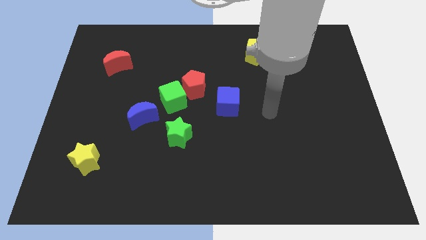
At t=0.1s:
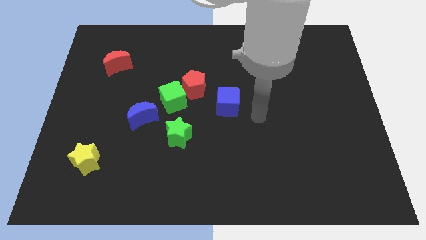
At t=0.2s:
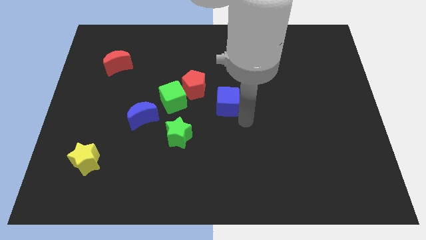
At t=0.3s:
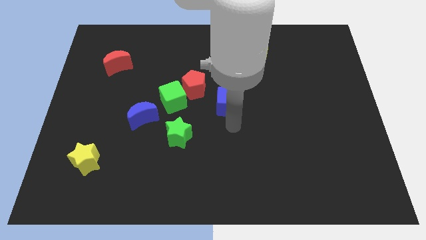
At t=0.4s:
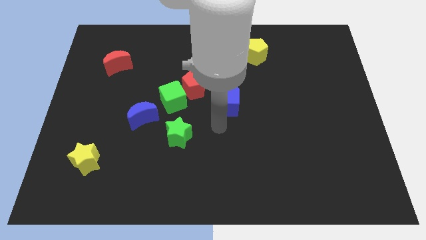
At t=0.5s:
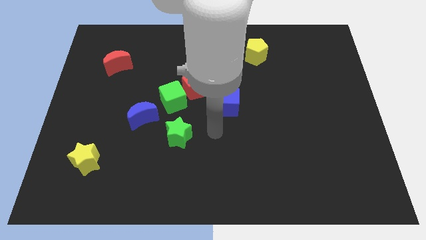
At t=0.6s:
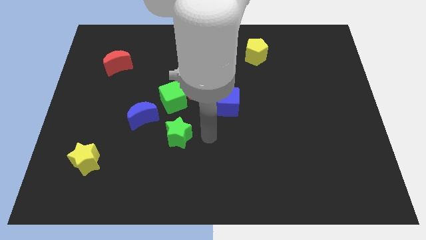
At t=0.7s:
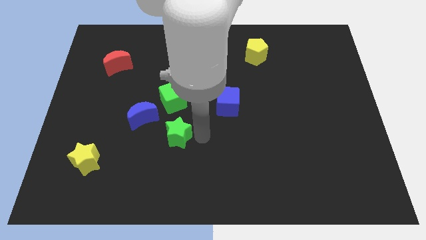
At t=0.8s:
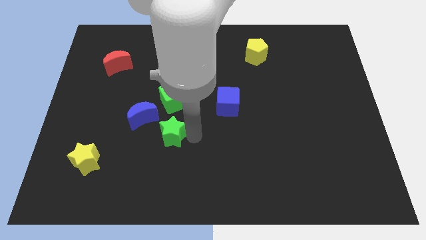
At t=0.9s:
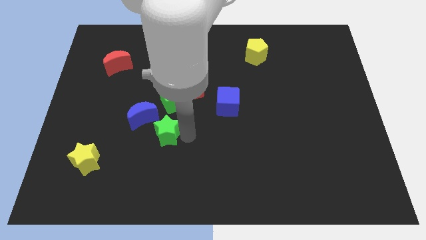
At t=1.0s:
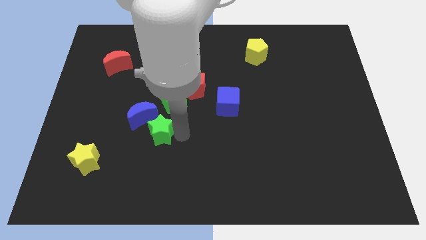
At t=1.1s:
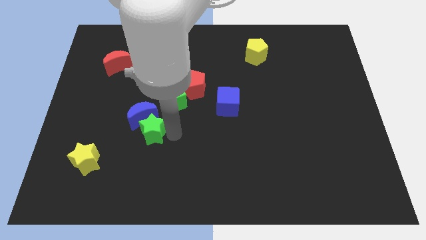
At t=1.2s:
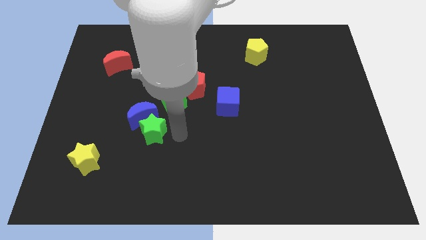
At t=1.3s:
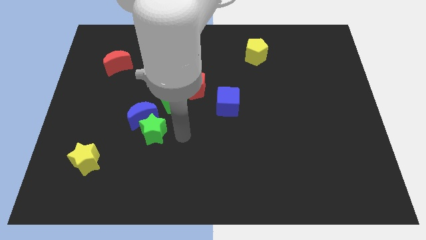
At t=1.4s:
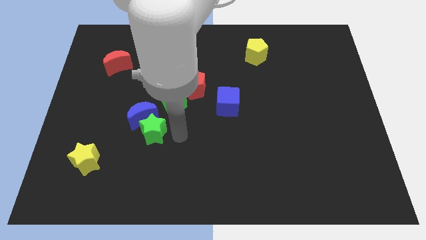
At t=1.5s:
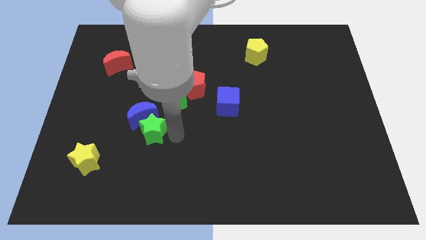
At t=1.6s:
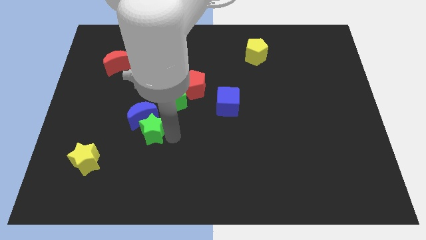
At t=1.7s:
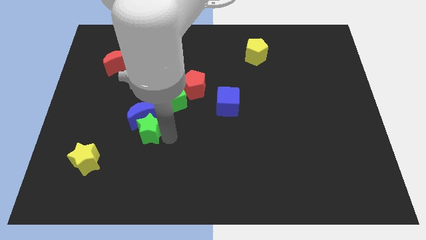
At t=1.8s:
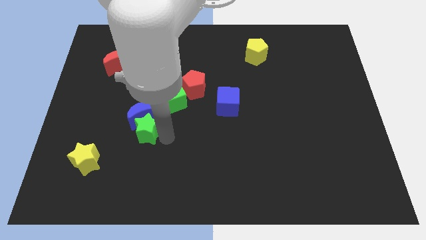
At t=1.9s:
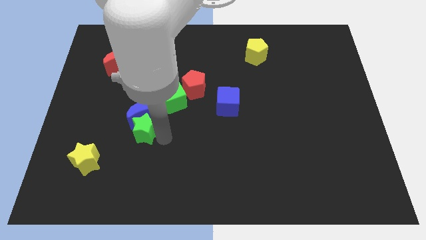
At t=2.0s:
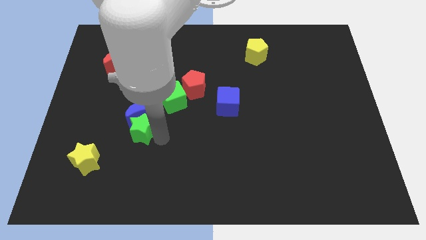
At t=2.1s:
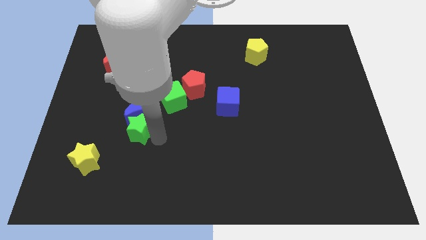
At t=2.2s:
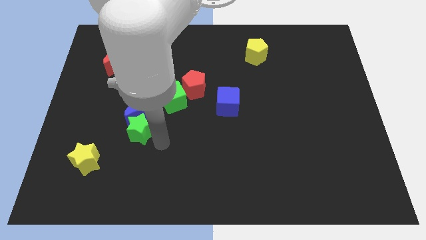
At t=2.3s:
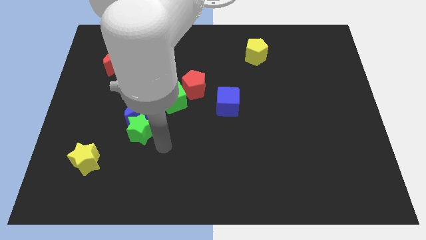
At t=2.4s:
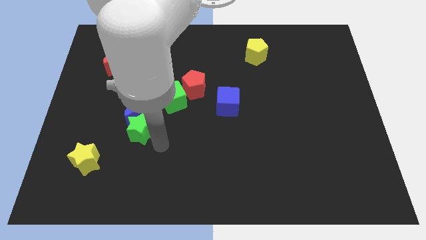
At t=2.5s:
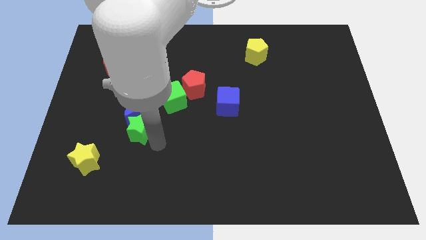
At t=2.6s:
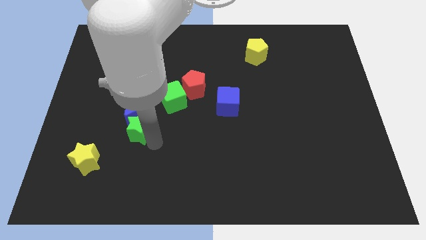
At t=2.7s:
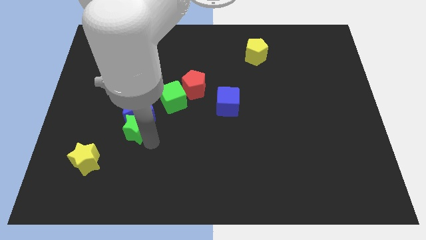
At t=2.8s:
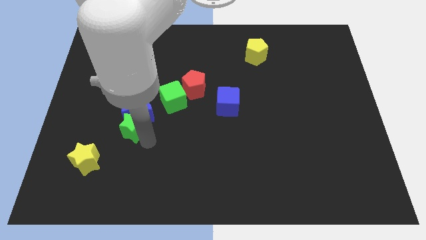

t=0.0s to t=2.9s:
slightly push the green star up and left

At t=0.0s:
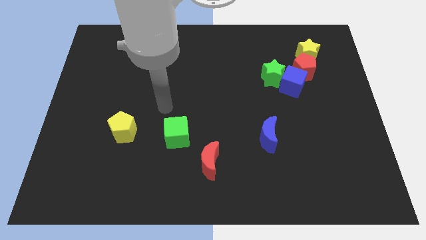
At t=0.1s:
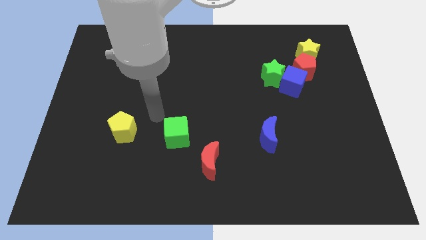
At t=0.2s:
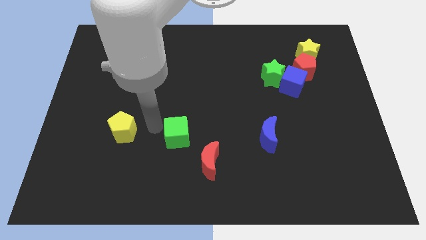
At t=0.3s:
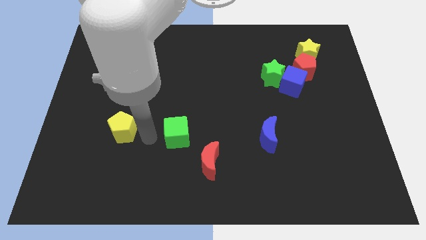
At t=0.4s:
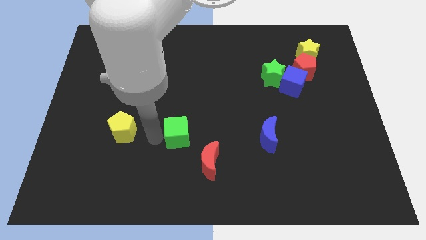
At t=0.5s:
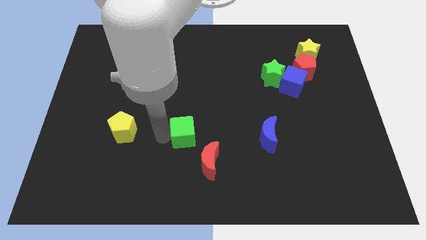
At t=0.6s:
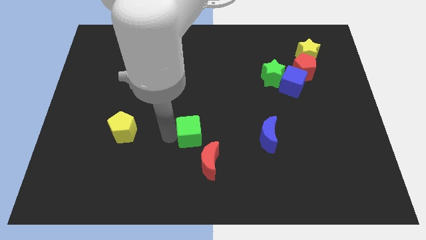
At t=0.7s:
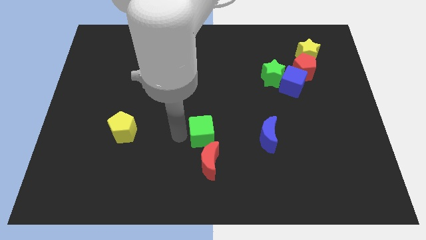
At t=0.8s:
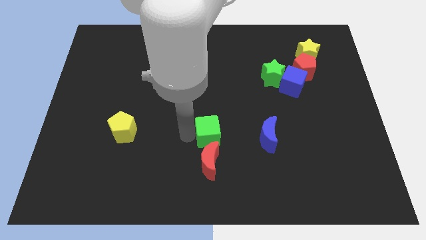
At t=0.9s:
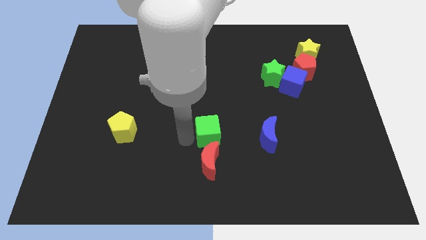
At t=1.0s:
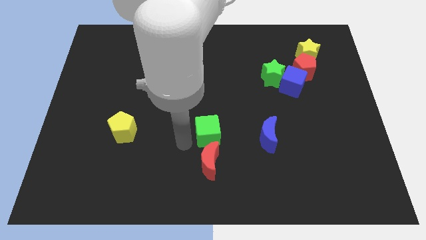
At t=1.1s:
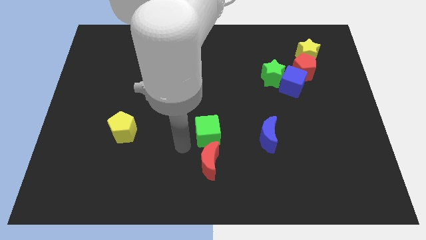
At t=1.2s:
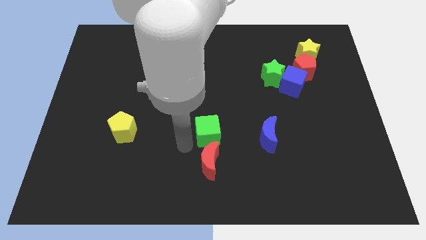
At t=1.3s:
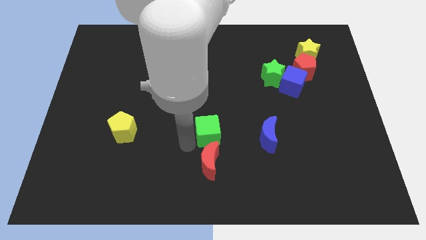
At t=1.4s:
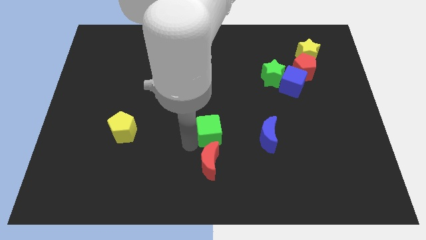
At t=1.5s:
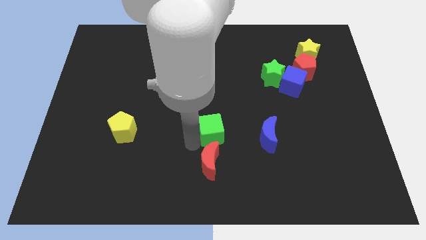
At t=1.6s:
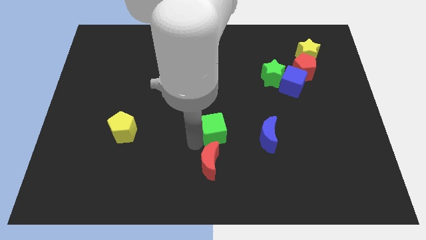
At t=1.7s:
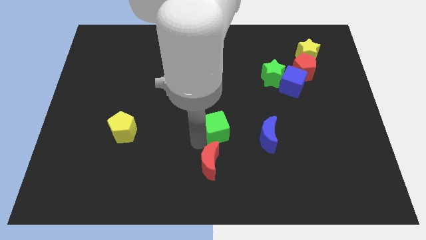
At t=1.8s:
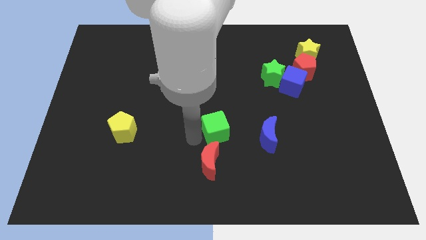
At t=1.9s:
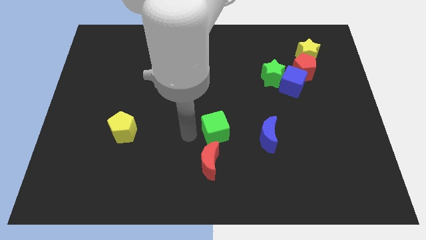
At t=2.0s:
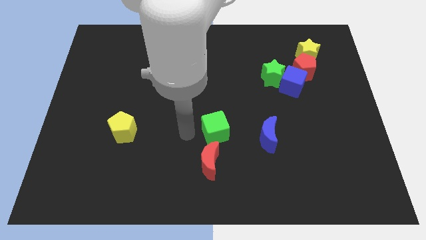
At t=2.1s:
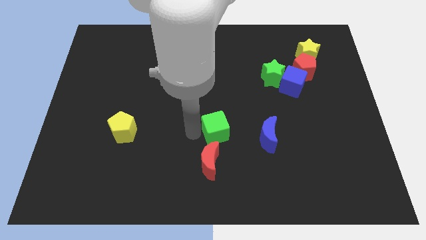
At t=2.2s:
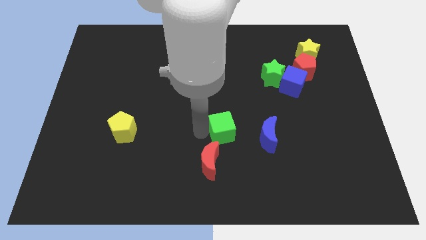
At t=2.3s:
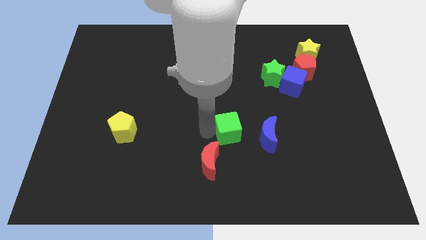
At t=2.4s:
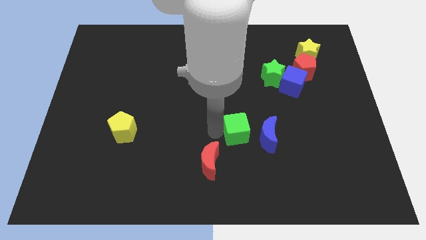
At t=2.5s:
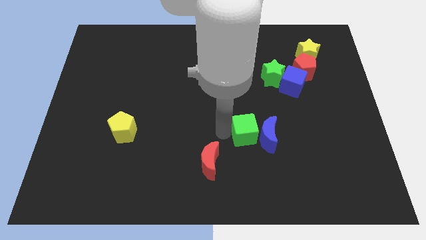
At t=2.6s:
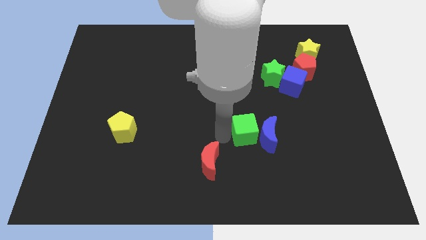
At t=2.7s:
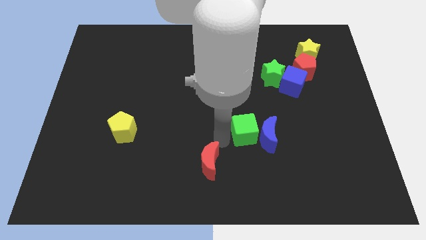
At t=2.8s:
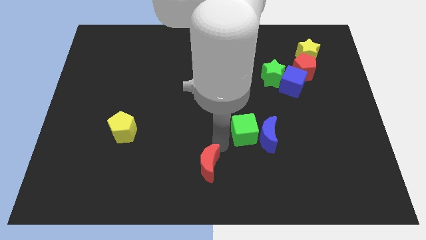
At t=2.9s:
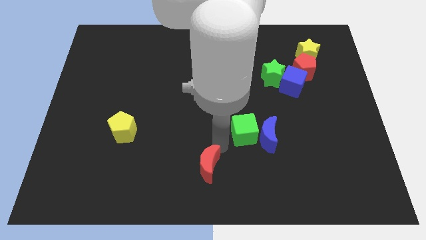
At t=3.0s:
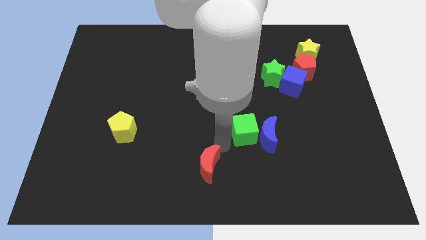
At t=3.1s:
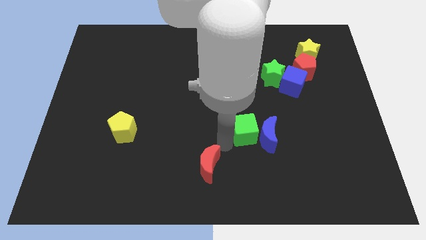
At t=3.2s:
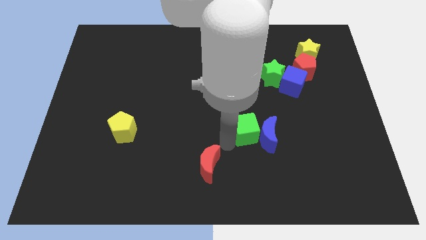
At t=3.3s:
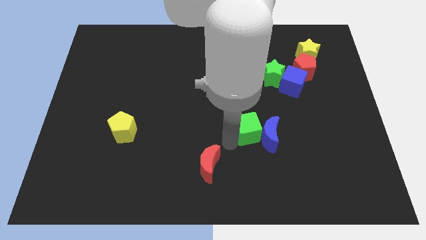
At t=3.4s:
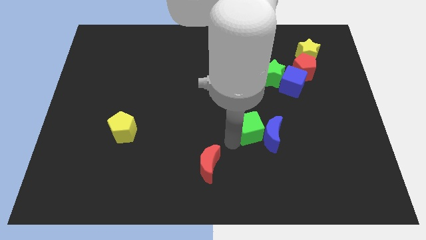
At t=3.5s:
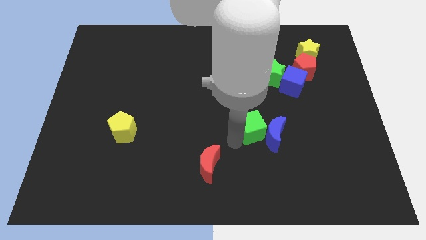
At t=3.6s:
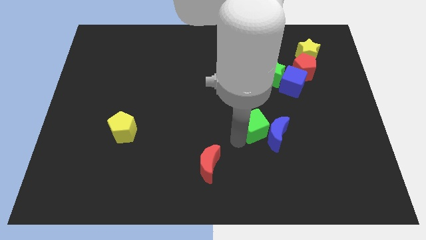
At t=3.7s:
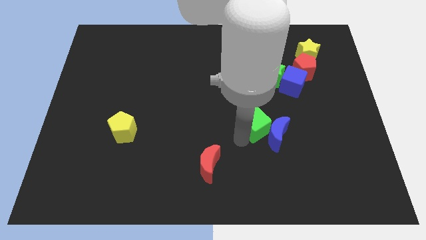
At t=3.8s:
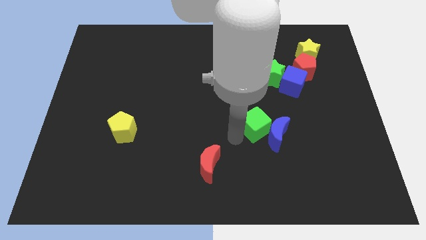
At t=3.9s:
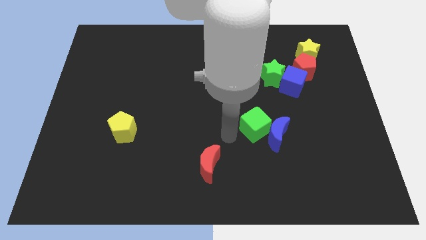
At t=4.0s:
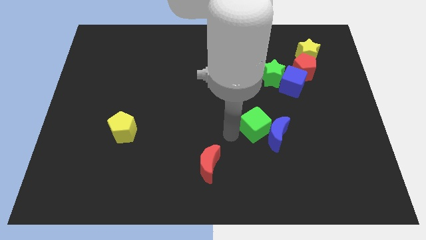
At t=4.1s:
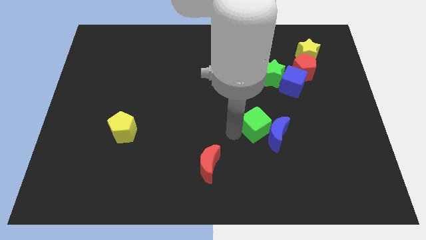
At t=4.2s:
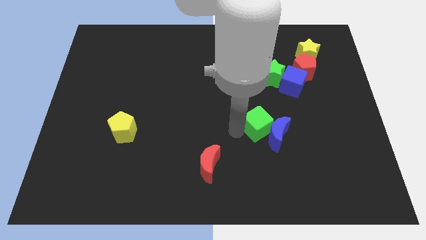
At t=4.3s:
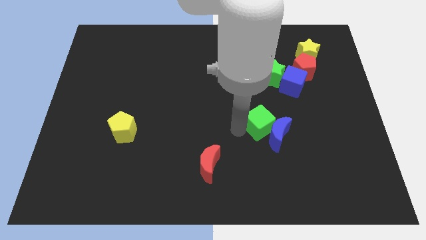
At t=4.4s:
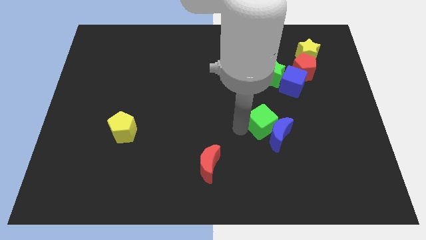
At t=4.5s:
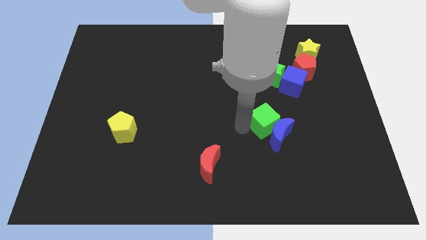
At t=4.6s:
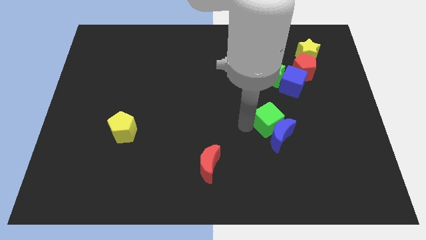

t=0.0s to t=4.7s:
push the green cube right

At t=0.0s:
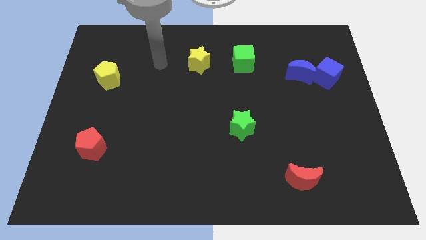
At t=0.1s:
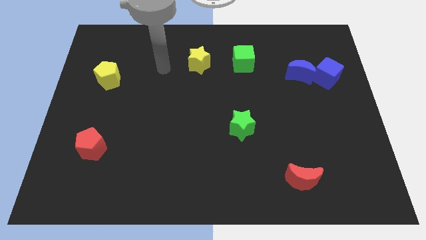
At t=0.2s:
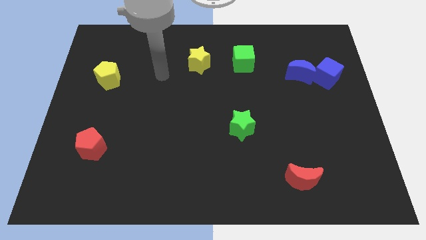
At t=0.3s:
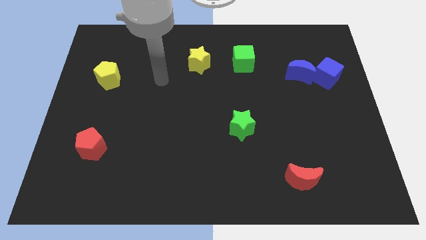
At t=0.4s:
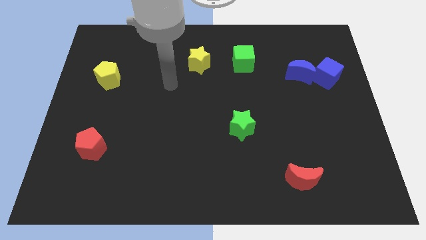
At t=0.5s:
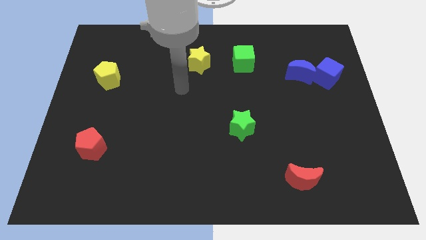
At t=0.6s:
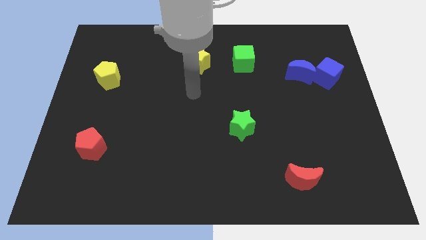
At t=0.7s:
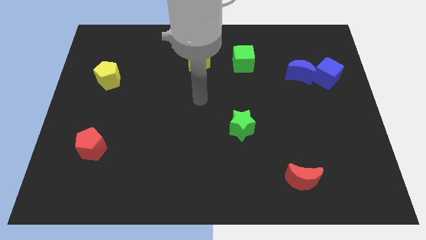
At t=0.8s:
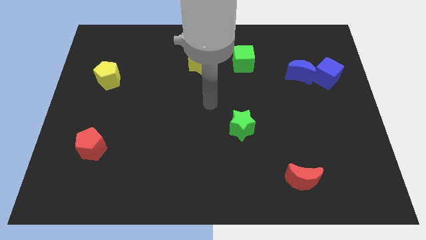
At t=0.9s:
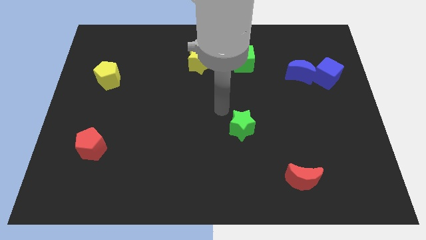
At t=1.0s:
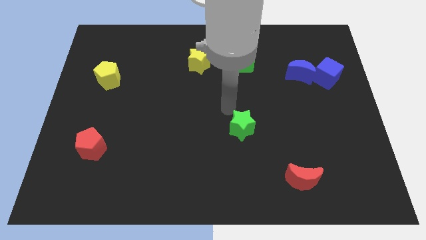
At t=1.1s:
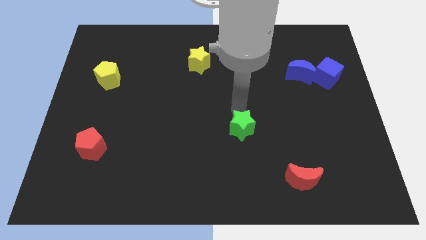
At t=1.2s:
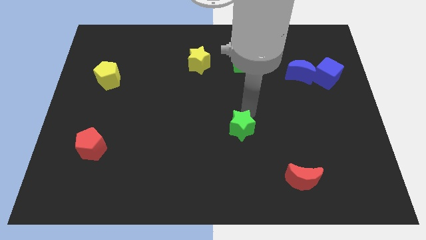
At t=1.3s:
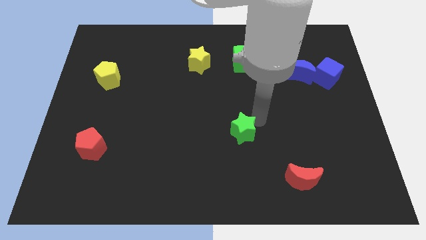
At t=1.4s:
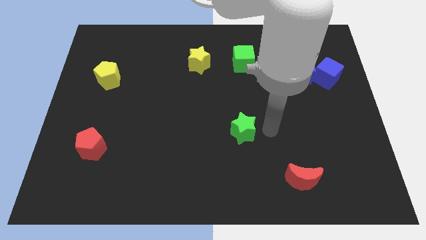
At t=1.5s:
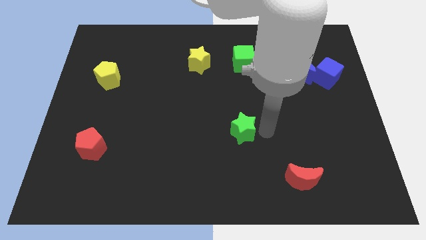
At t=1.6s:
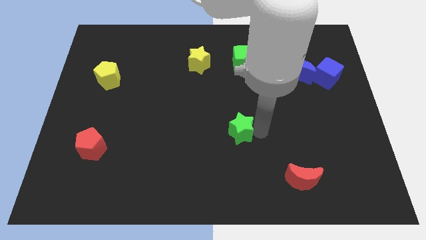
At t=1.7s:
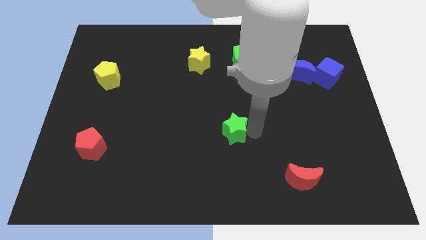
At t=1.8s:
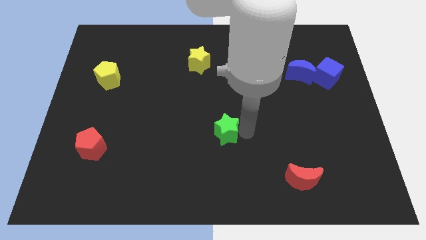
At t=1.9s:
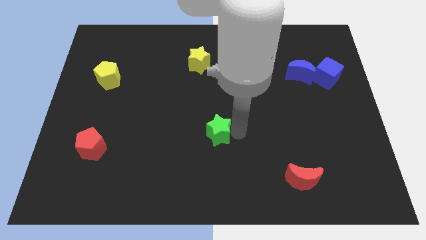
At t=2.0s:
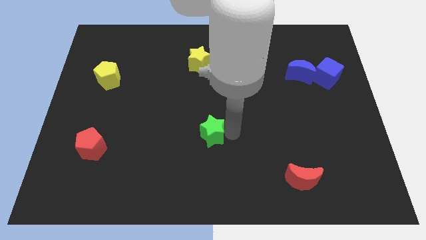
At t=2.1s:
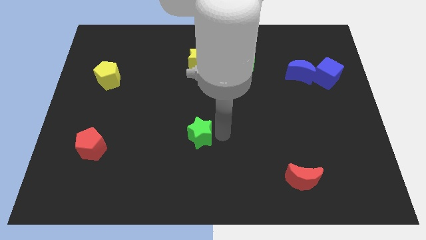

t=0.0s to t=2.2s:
push the green star to the left a little
